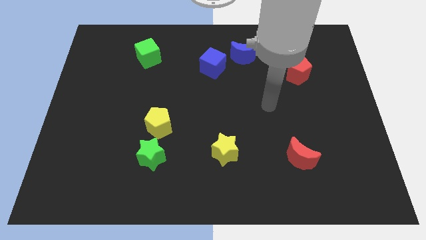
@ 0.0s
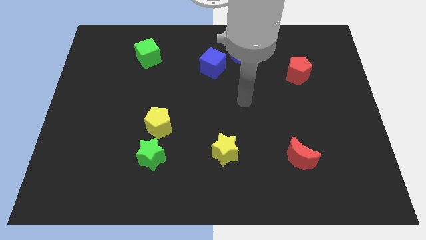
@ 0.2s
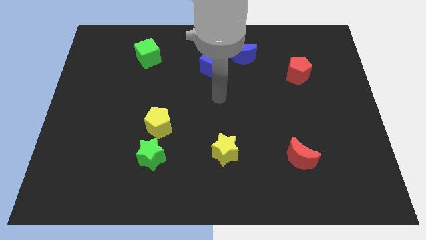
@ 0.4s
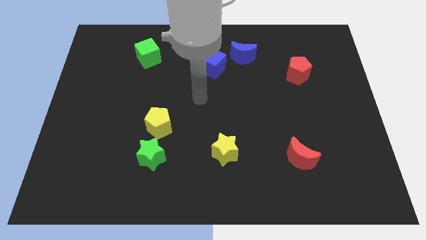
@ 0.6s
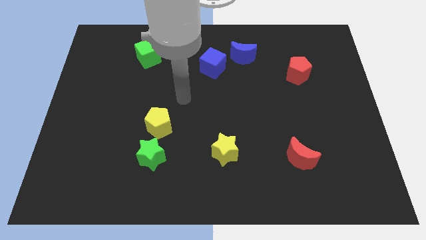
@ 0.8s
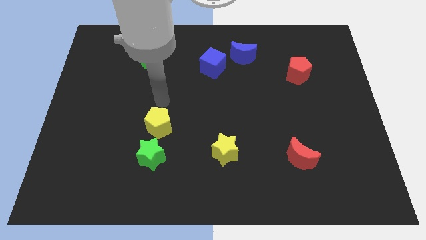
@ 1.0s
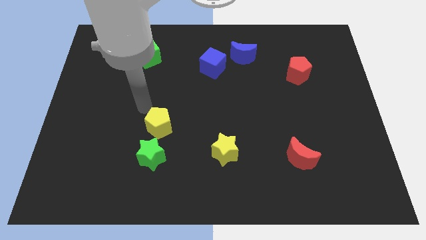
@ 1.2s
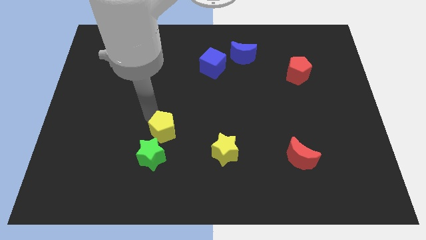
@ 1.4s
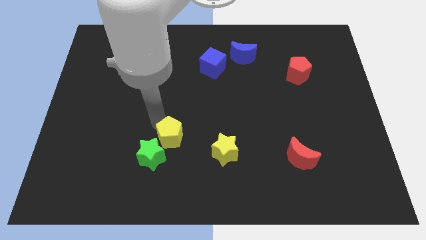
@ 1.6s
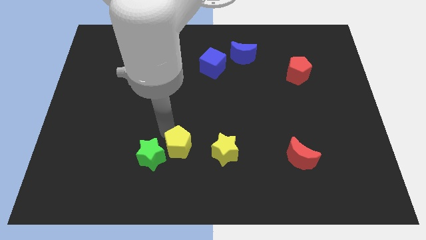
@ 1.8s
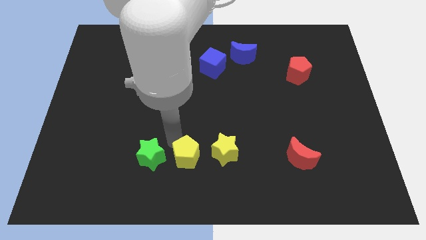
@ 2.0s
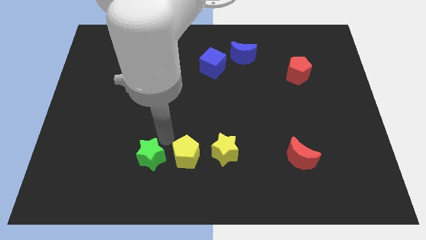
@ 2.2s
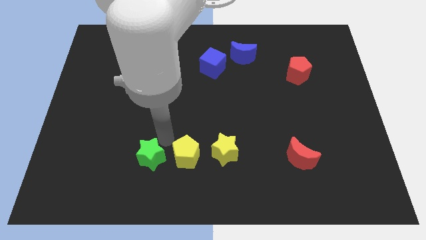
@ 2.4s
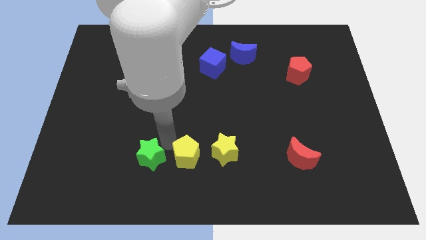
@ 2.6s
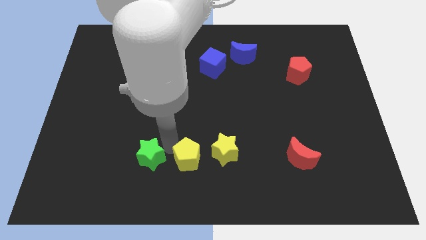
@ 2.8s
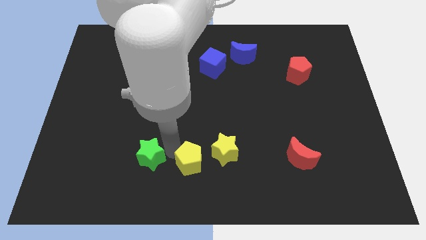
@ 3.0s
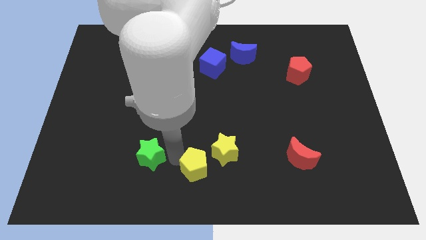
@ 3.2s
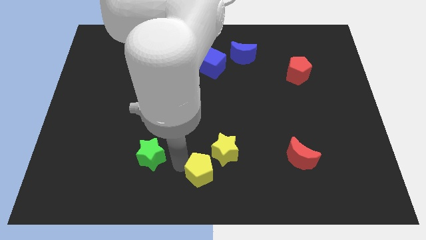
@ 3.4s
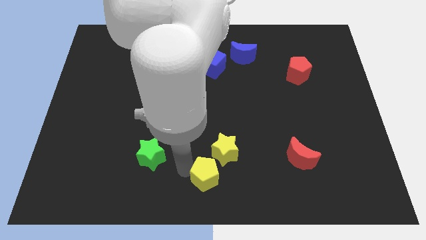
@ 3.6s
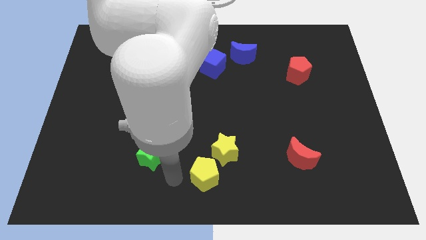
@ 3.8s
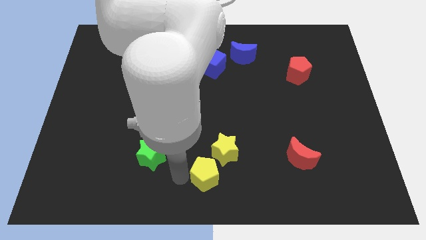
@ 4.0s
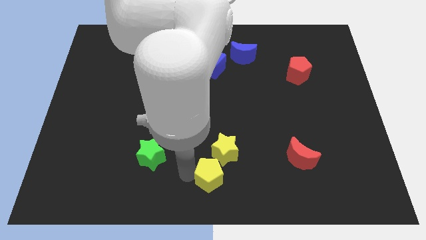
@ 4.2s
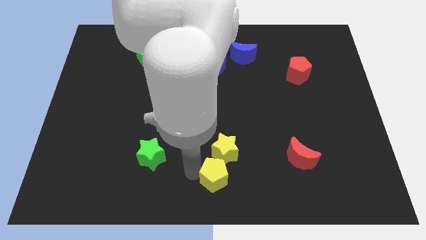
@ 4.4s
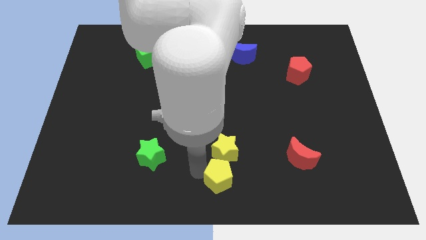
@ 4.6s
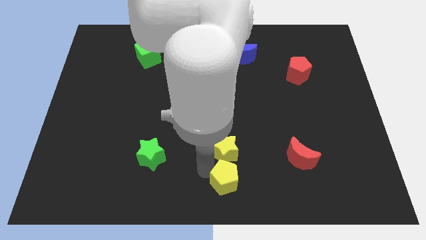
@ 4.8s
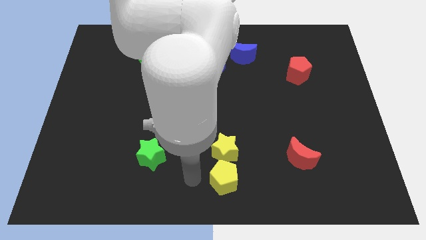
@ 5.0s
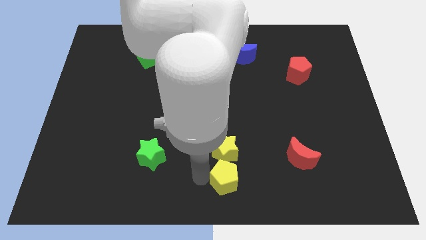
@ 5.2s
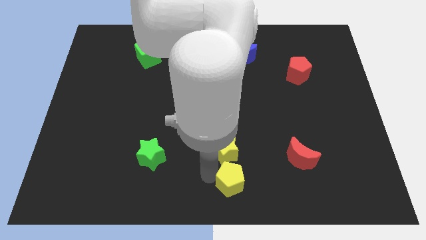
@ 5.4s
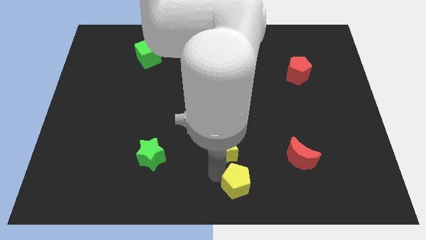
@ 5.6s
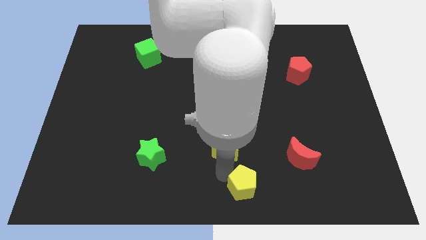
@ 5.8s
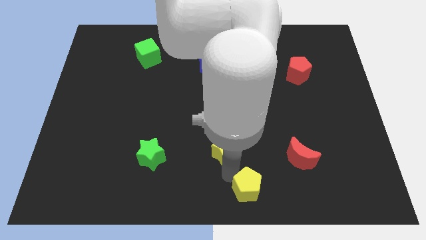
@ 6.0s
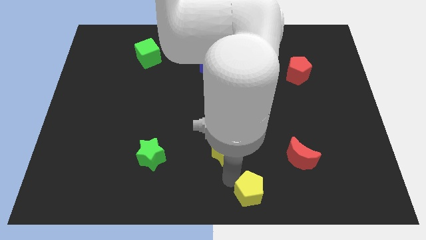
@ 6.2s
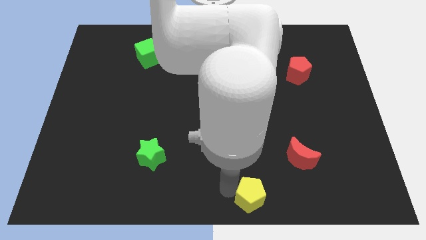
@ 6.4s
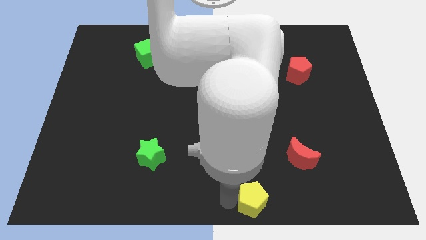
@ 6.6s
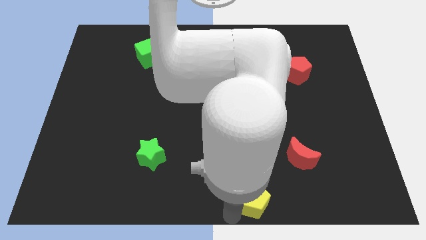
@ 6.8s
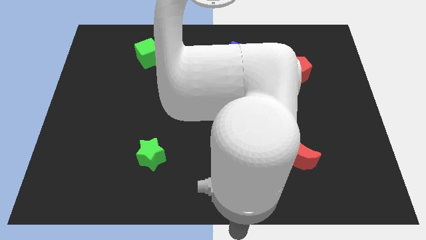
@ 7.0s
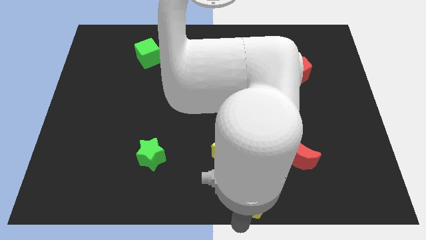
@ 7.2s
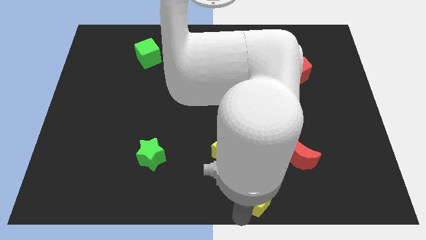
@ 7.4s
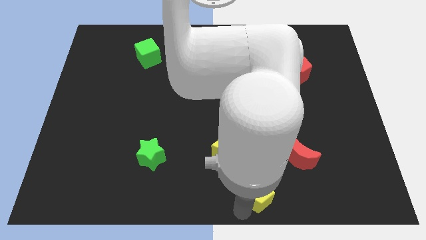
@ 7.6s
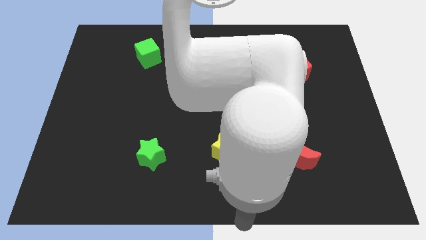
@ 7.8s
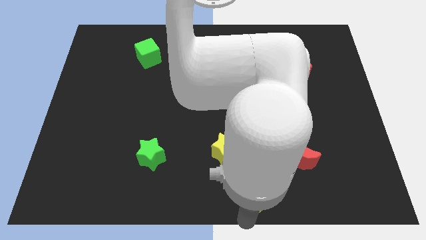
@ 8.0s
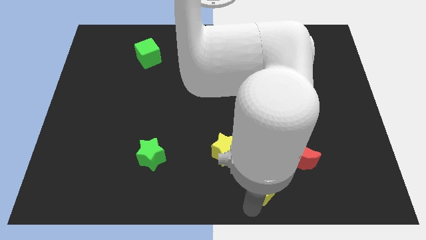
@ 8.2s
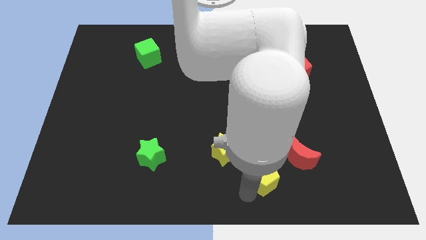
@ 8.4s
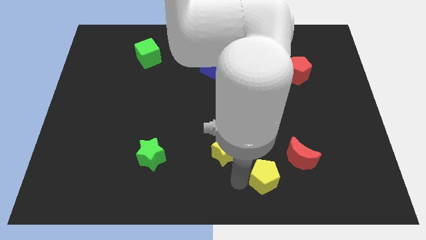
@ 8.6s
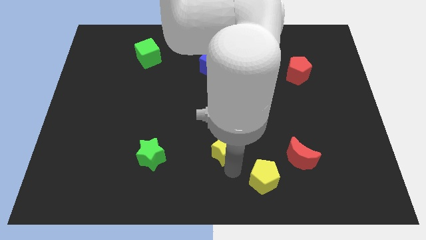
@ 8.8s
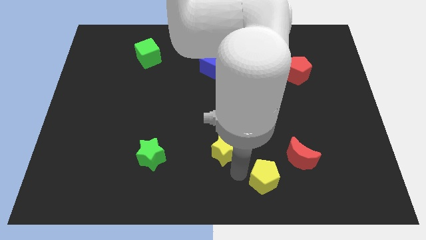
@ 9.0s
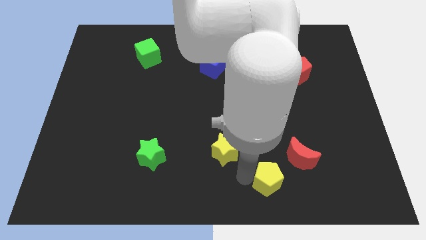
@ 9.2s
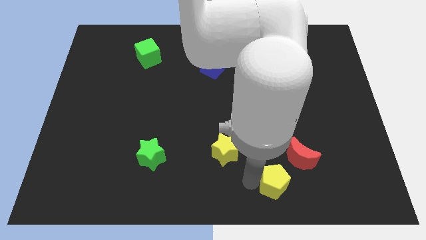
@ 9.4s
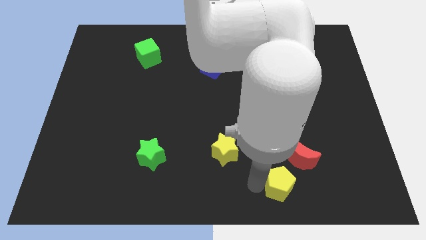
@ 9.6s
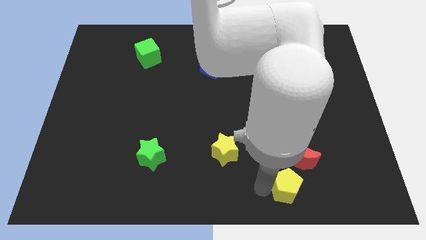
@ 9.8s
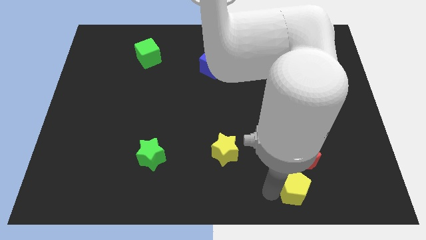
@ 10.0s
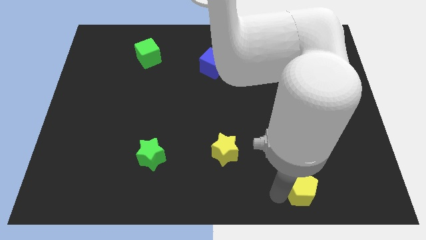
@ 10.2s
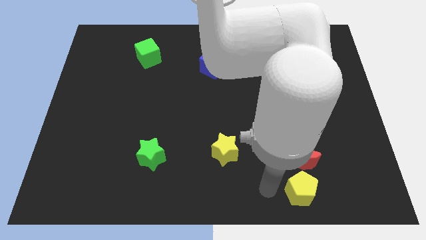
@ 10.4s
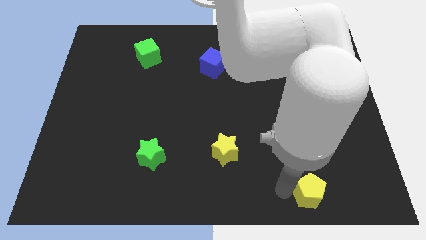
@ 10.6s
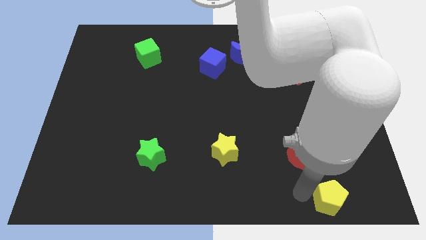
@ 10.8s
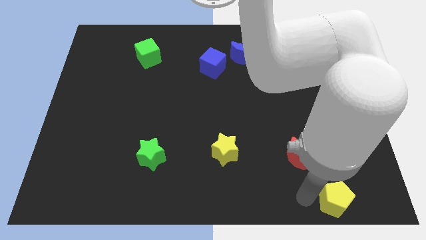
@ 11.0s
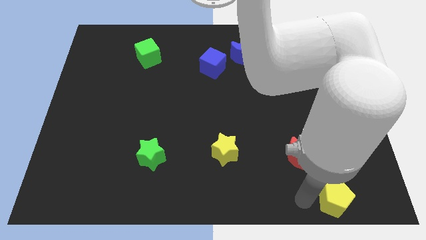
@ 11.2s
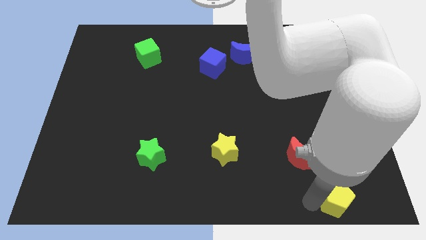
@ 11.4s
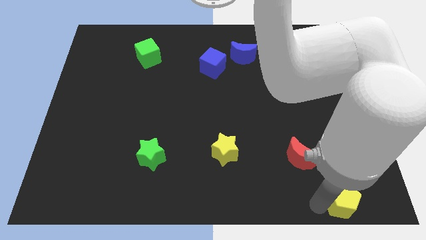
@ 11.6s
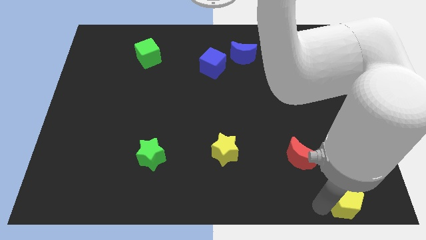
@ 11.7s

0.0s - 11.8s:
push the yellow pentagon to the bottom right corner

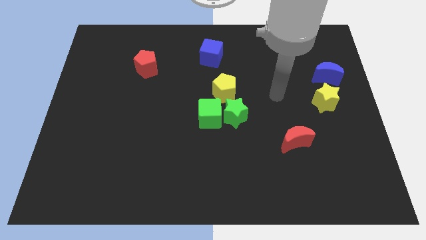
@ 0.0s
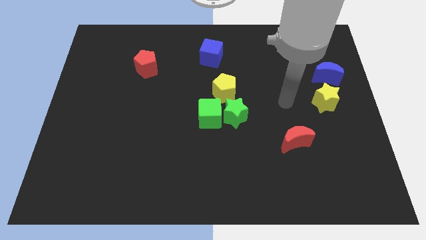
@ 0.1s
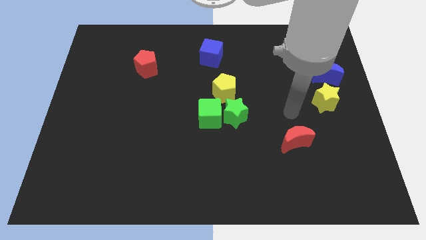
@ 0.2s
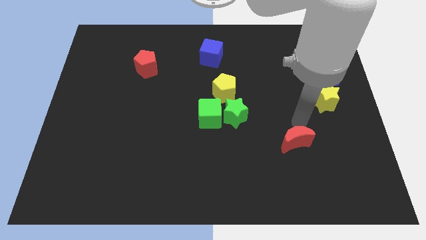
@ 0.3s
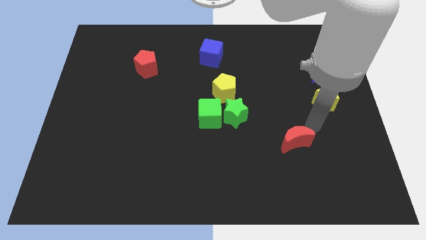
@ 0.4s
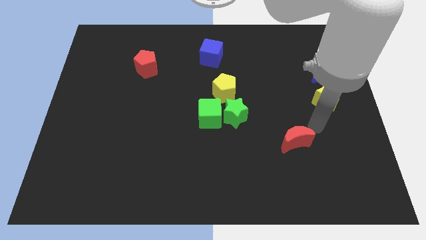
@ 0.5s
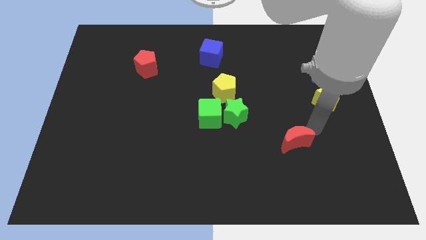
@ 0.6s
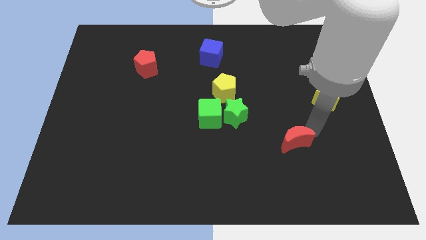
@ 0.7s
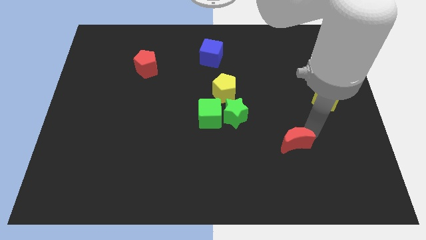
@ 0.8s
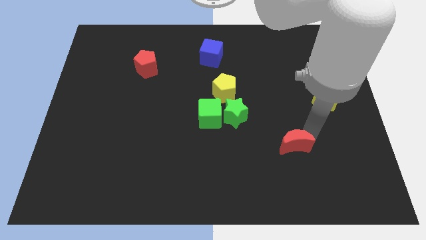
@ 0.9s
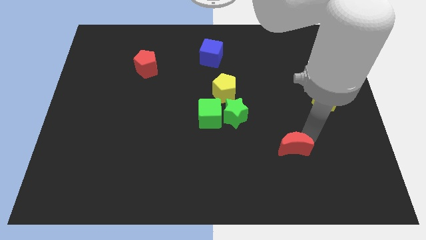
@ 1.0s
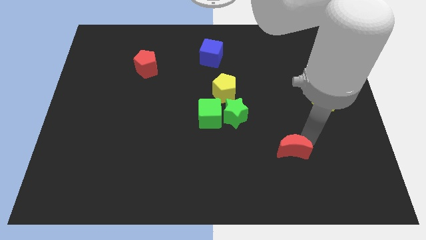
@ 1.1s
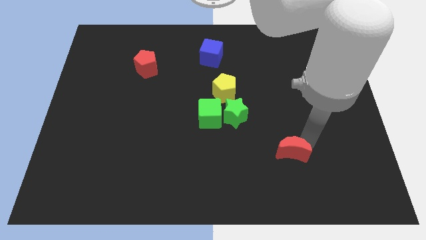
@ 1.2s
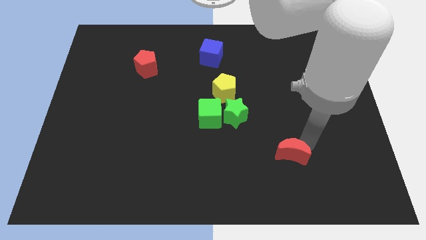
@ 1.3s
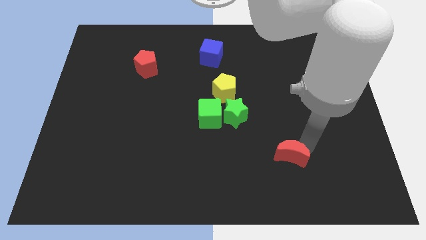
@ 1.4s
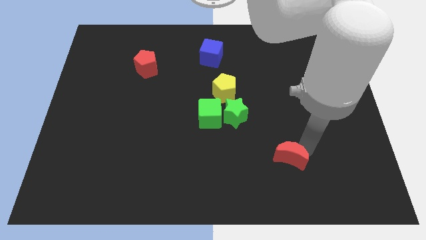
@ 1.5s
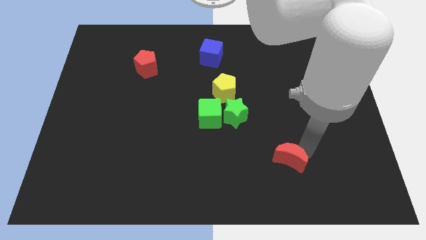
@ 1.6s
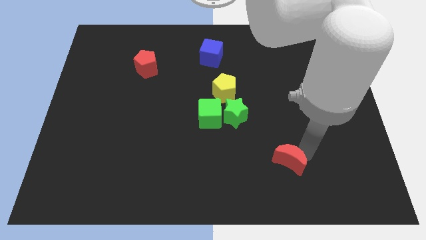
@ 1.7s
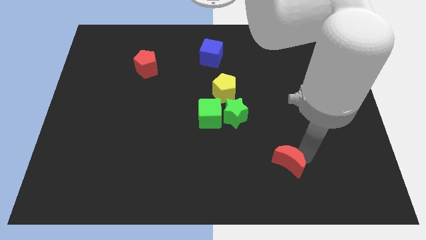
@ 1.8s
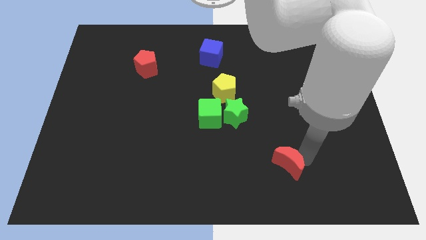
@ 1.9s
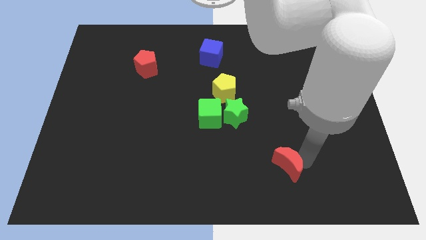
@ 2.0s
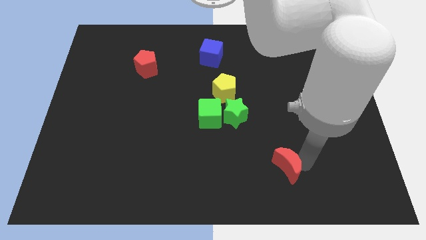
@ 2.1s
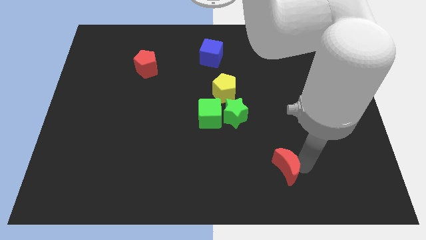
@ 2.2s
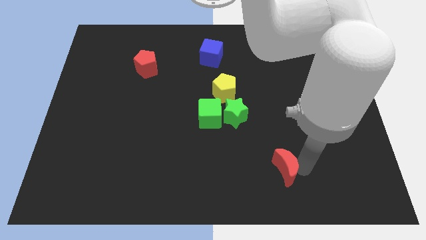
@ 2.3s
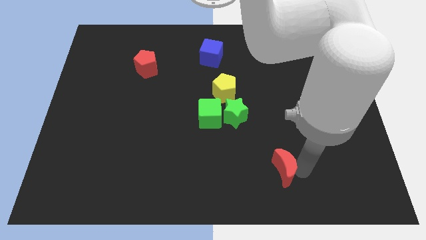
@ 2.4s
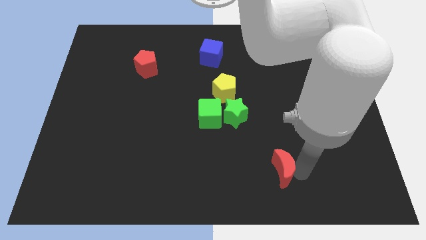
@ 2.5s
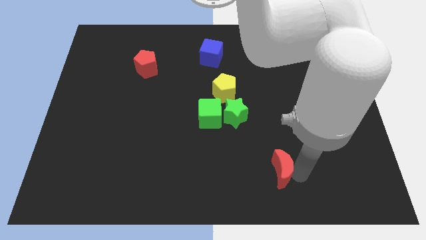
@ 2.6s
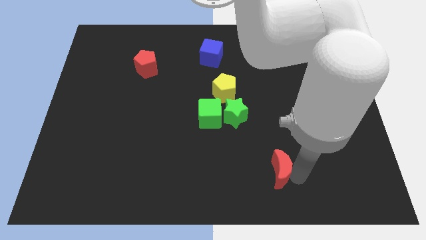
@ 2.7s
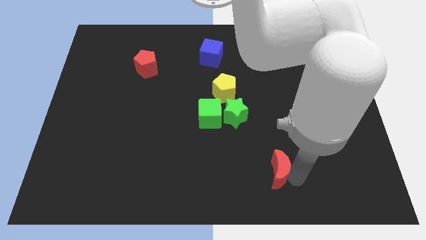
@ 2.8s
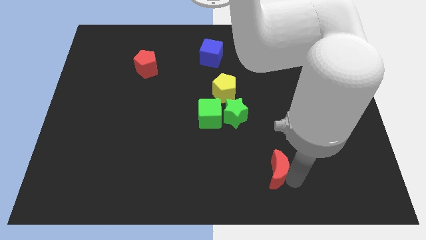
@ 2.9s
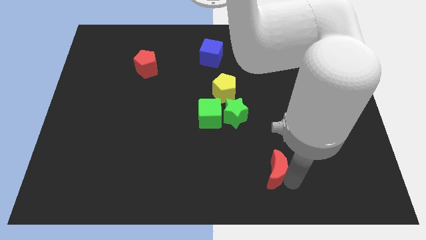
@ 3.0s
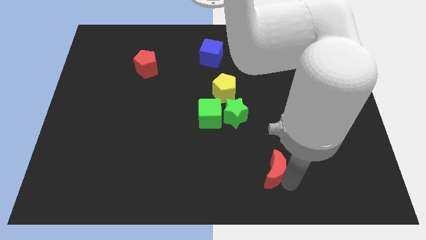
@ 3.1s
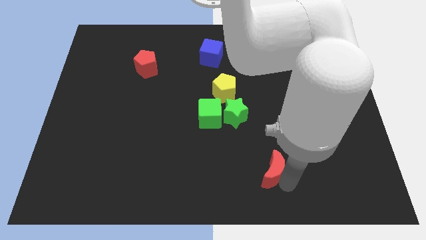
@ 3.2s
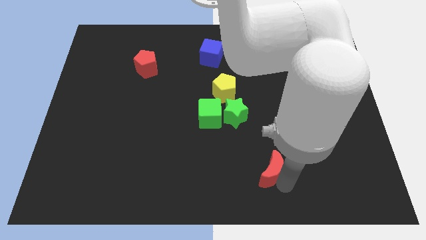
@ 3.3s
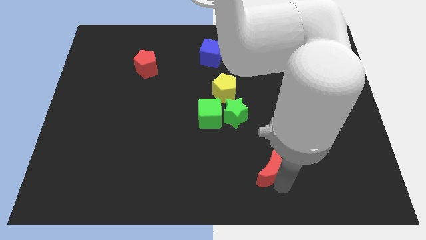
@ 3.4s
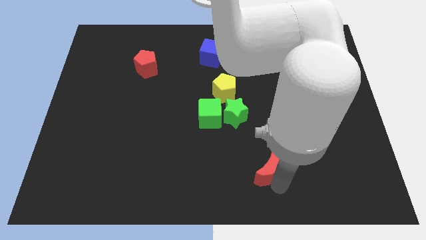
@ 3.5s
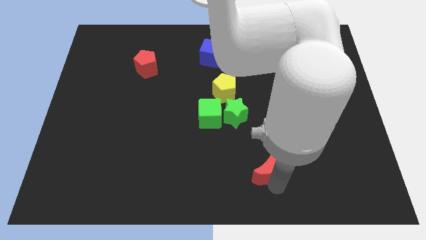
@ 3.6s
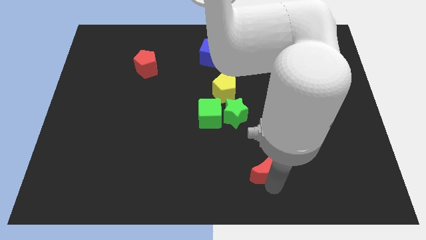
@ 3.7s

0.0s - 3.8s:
put the red moon to the bottom
